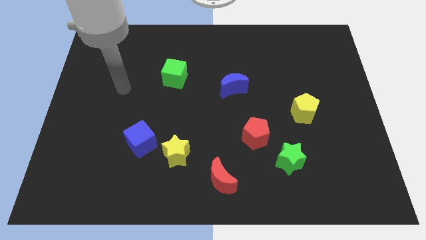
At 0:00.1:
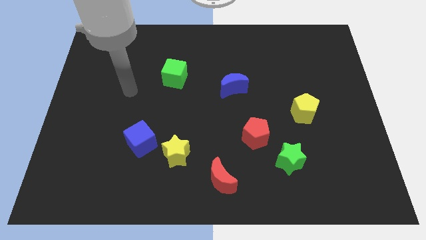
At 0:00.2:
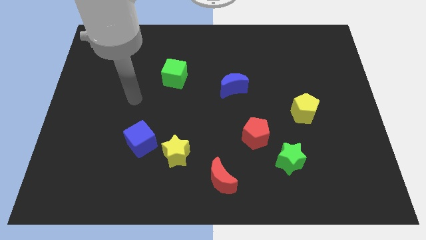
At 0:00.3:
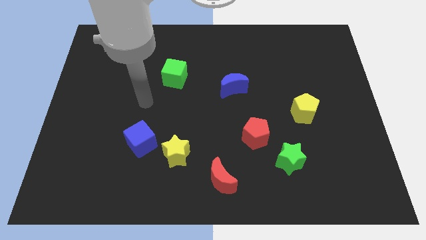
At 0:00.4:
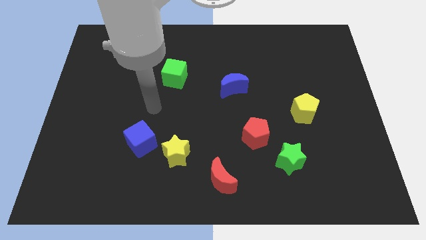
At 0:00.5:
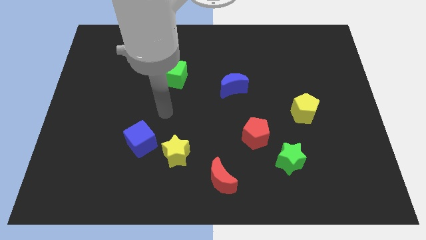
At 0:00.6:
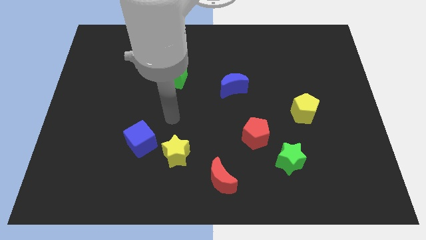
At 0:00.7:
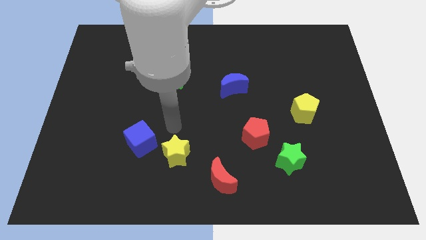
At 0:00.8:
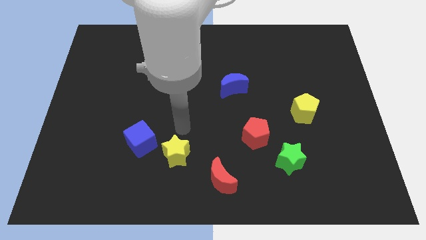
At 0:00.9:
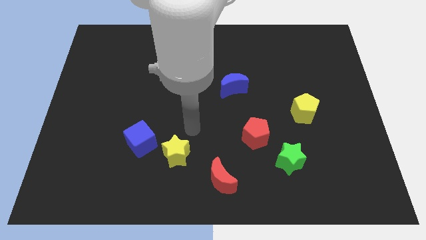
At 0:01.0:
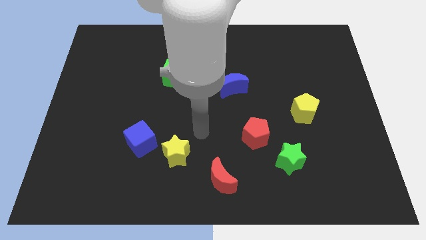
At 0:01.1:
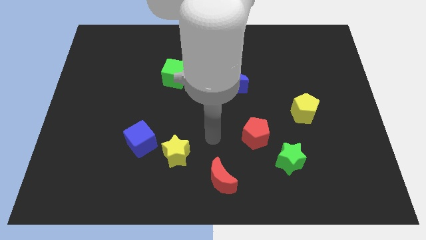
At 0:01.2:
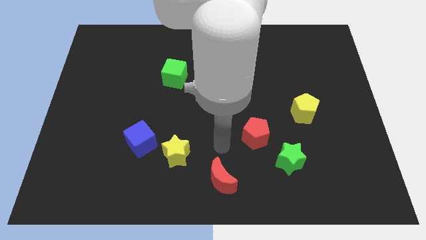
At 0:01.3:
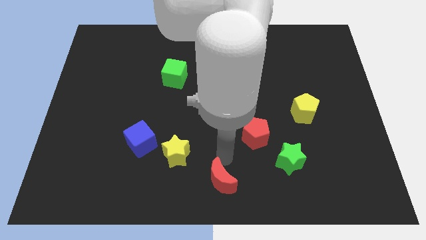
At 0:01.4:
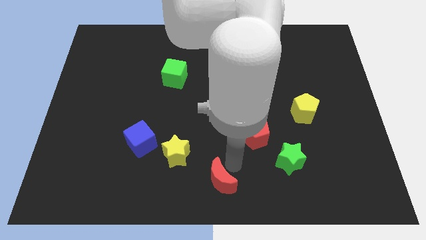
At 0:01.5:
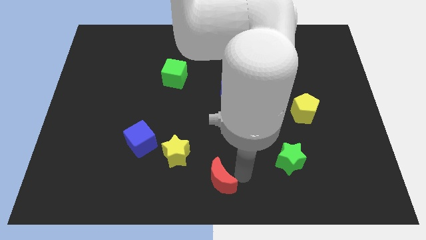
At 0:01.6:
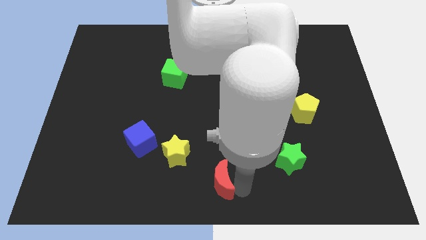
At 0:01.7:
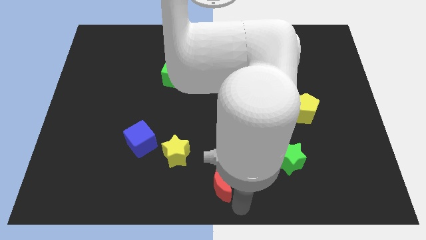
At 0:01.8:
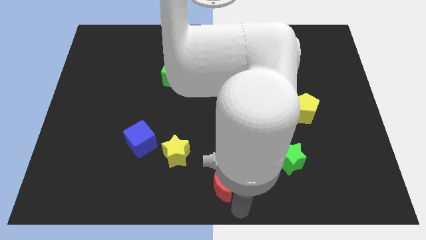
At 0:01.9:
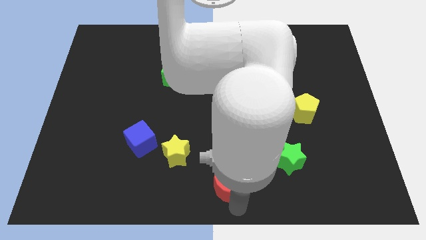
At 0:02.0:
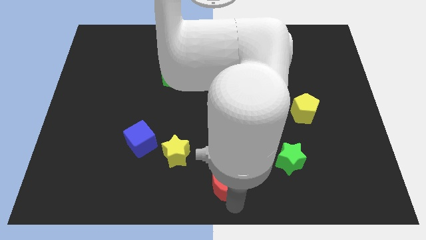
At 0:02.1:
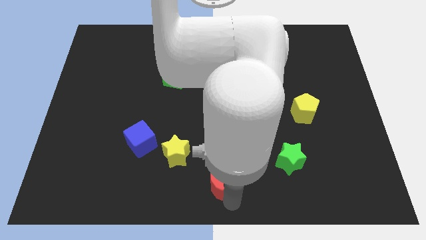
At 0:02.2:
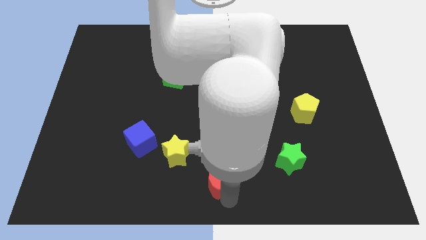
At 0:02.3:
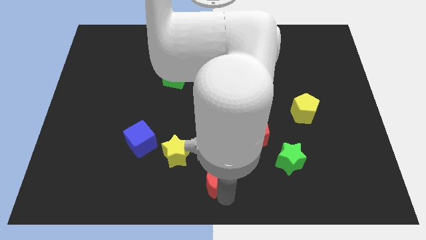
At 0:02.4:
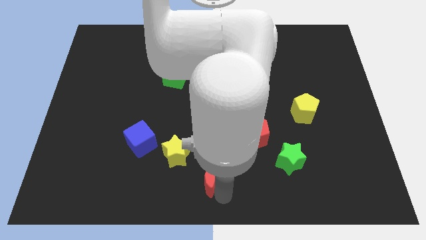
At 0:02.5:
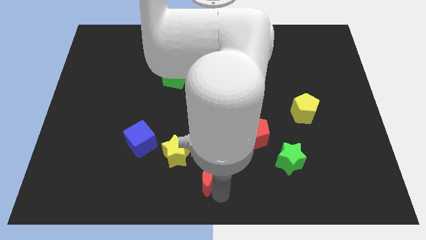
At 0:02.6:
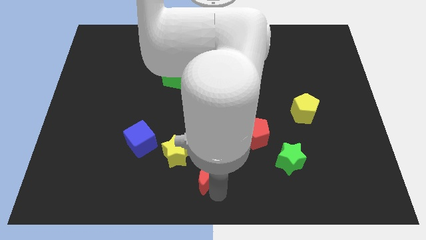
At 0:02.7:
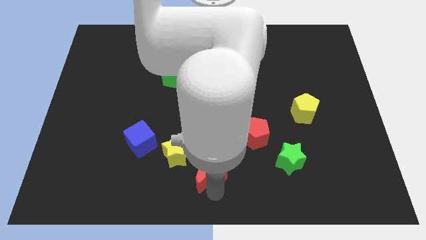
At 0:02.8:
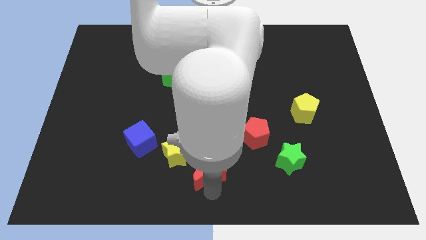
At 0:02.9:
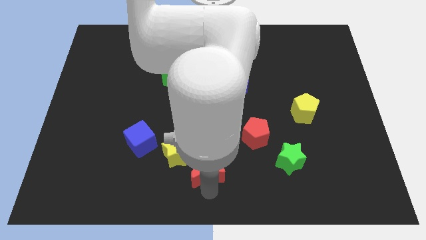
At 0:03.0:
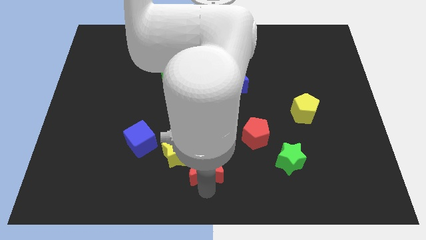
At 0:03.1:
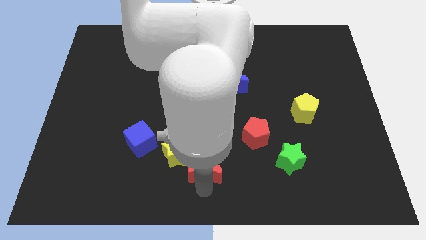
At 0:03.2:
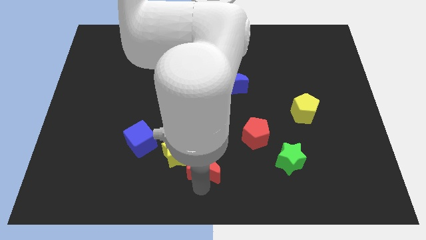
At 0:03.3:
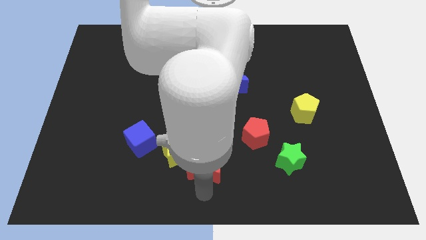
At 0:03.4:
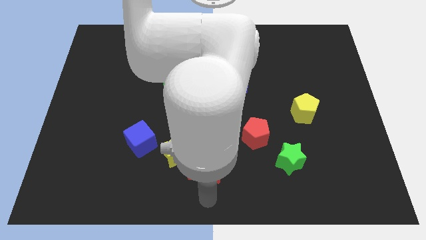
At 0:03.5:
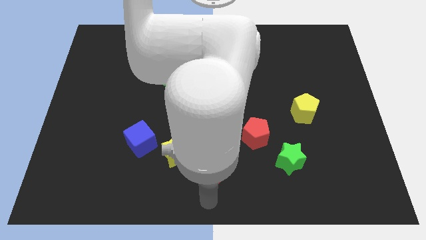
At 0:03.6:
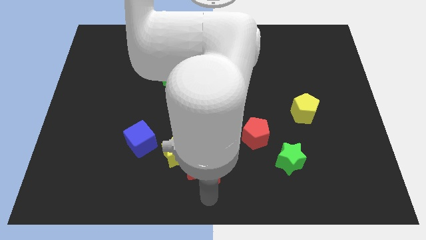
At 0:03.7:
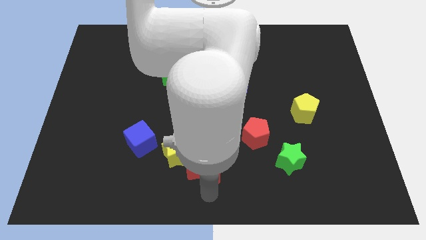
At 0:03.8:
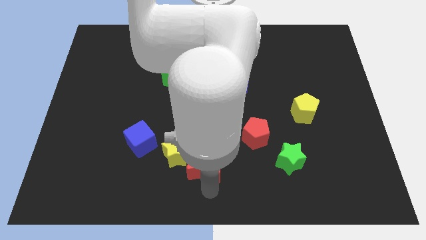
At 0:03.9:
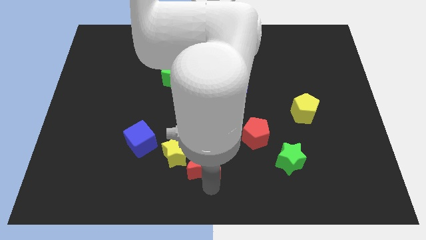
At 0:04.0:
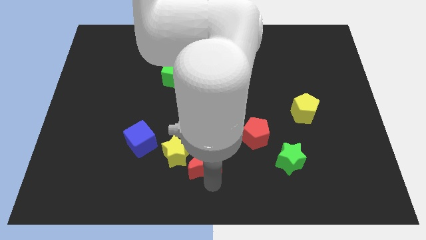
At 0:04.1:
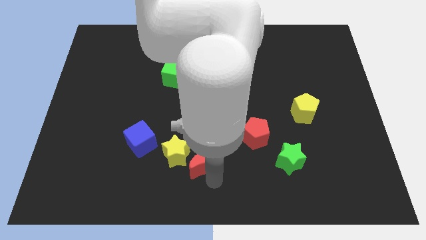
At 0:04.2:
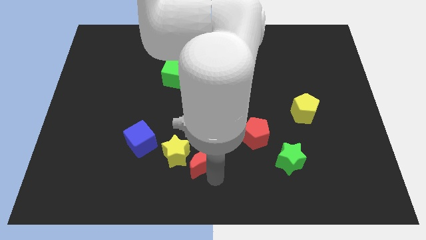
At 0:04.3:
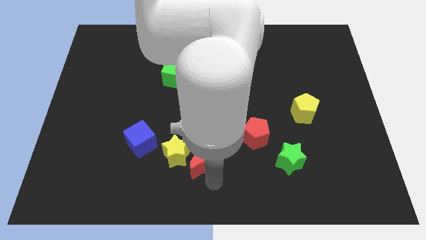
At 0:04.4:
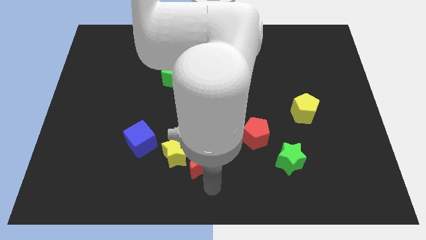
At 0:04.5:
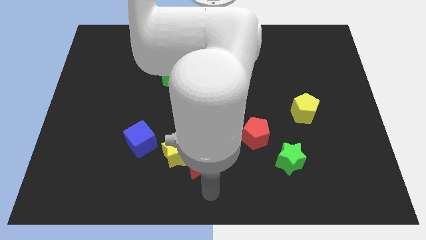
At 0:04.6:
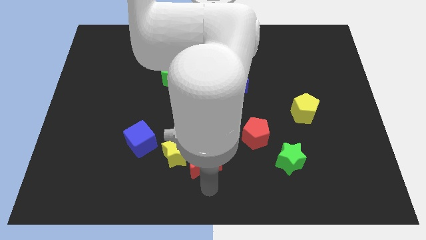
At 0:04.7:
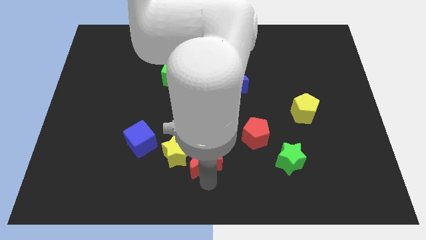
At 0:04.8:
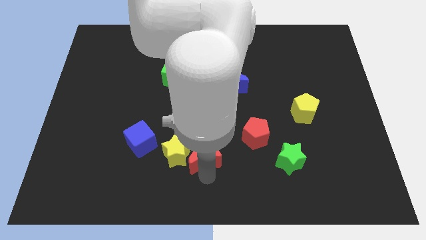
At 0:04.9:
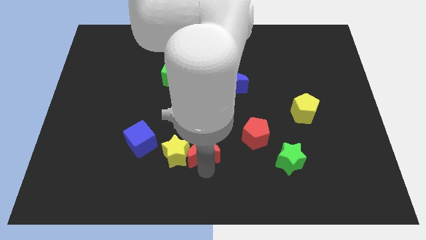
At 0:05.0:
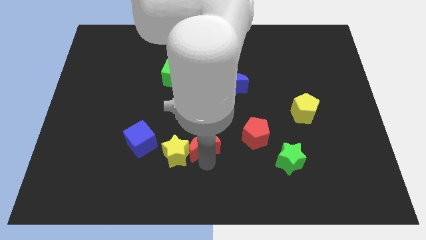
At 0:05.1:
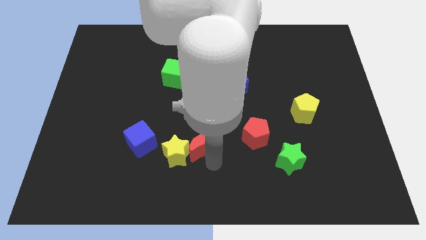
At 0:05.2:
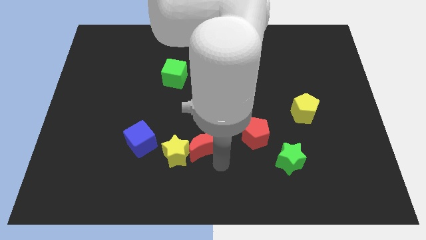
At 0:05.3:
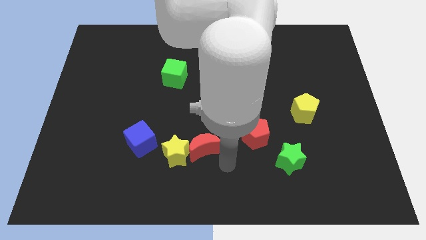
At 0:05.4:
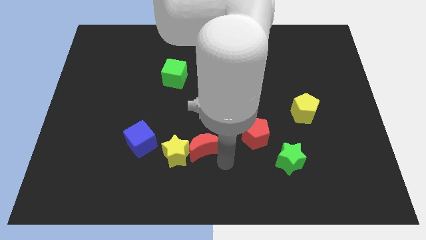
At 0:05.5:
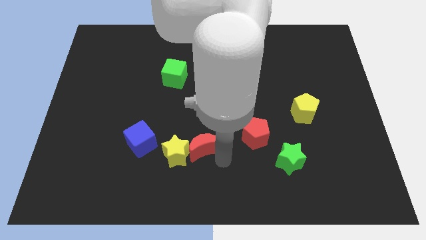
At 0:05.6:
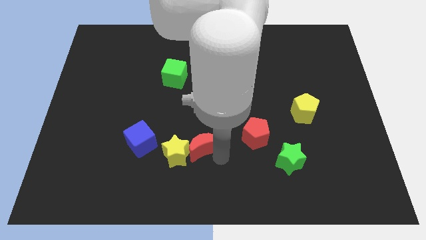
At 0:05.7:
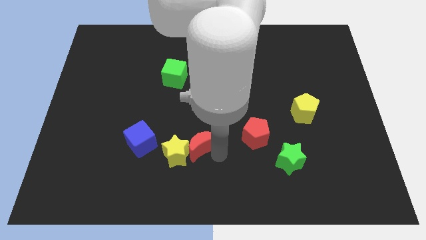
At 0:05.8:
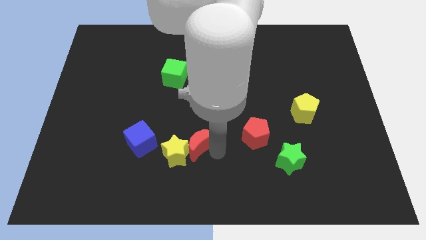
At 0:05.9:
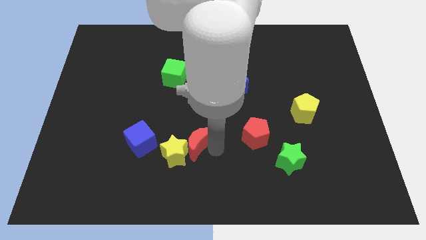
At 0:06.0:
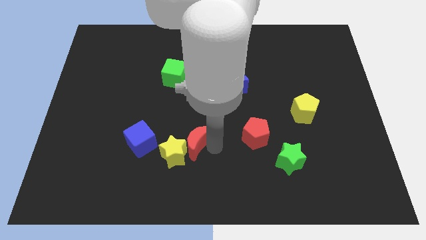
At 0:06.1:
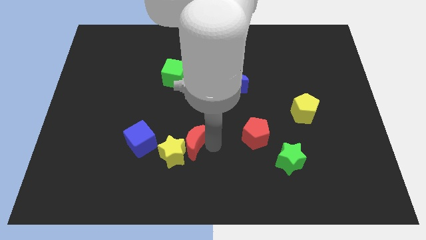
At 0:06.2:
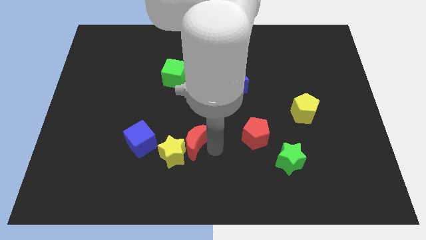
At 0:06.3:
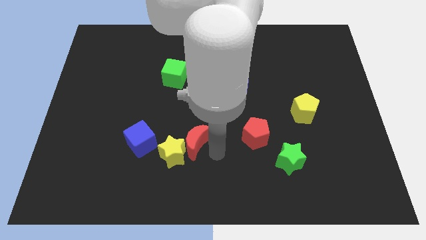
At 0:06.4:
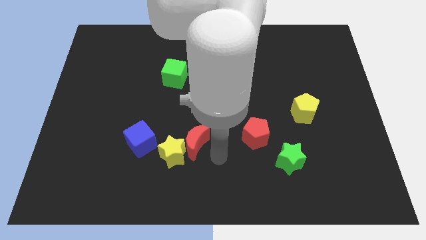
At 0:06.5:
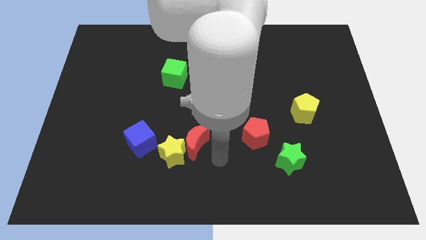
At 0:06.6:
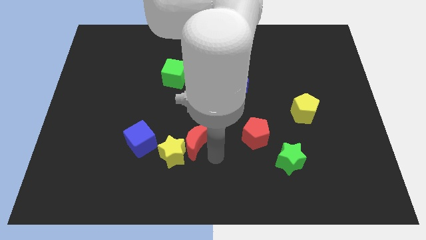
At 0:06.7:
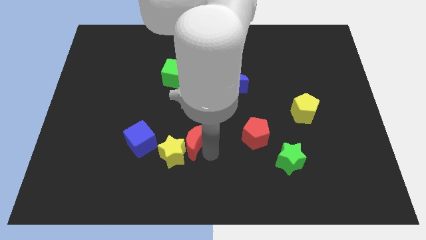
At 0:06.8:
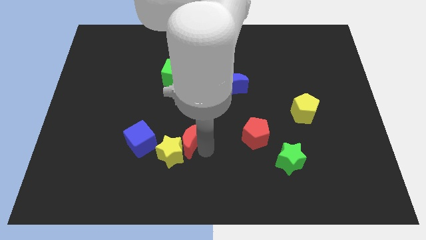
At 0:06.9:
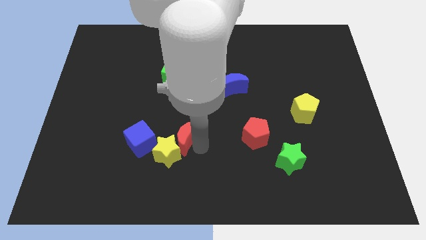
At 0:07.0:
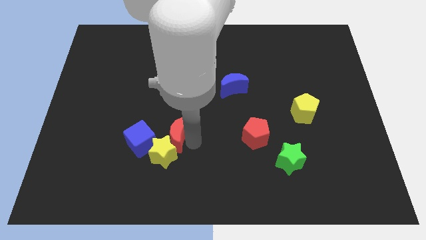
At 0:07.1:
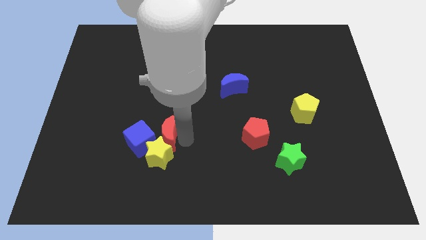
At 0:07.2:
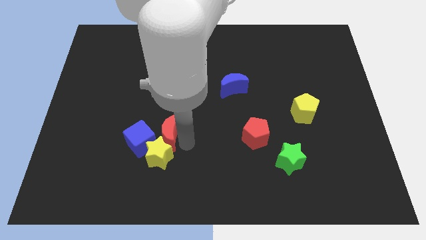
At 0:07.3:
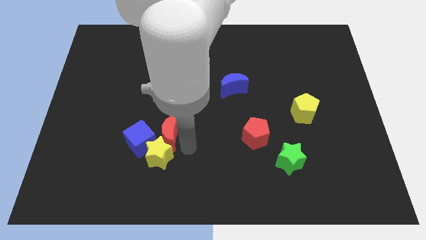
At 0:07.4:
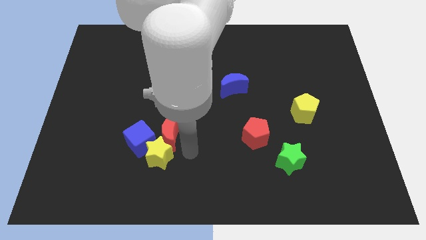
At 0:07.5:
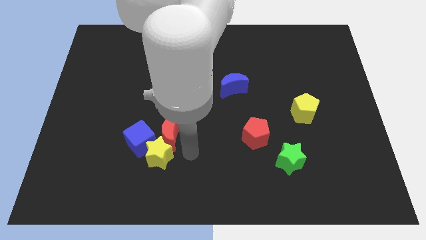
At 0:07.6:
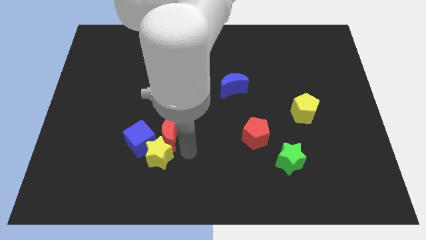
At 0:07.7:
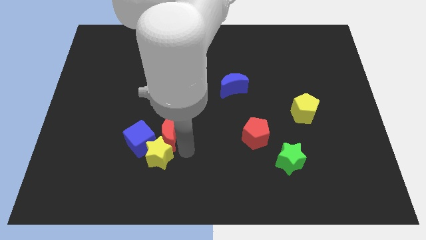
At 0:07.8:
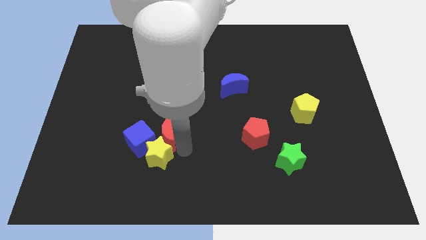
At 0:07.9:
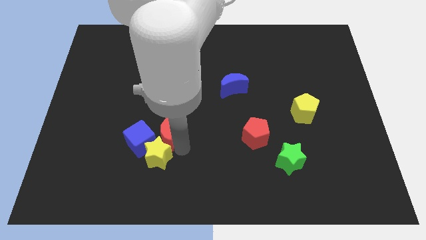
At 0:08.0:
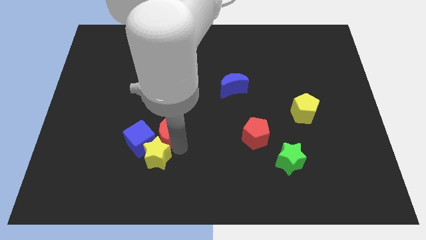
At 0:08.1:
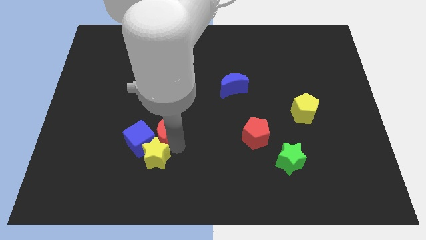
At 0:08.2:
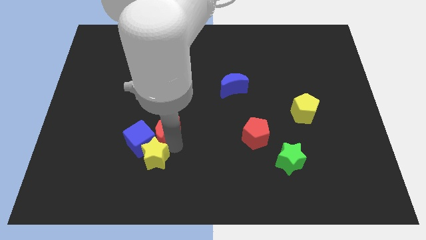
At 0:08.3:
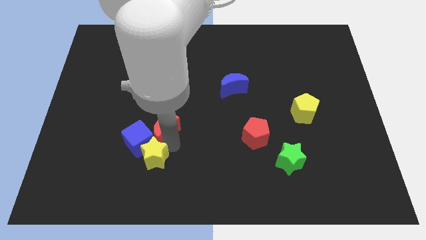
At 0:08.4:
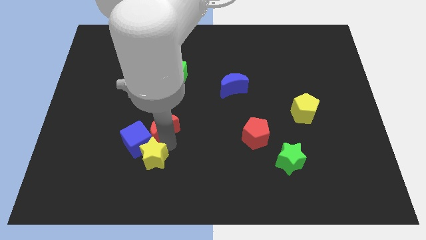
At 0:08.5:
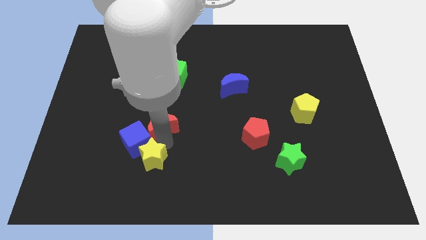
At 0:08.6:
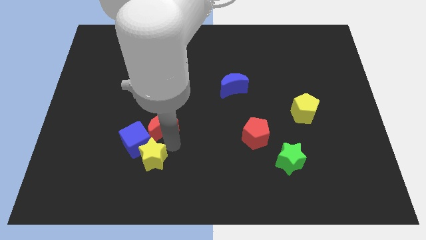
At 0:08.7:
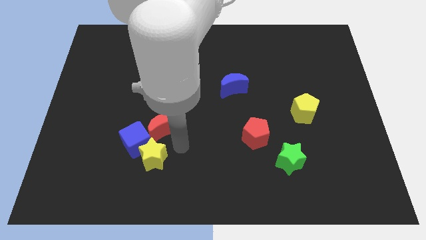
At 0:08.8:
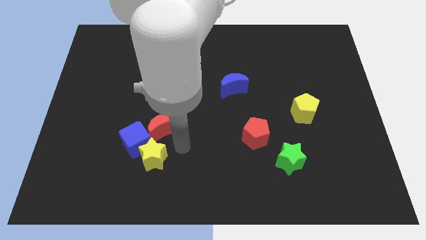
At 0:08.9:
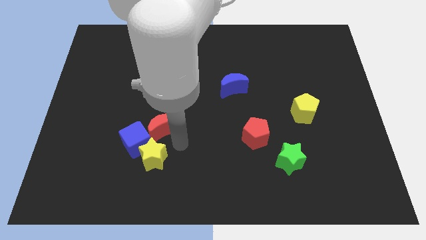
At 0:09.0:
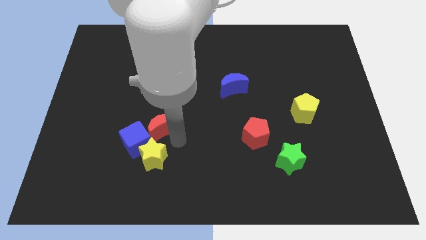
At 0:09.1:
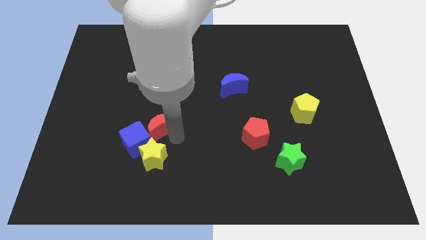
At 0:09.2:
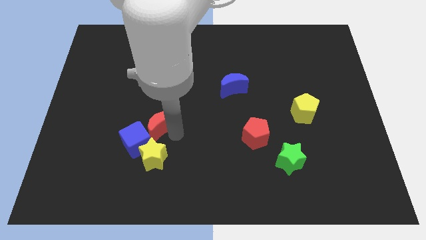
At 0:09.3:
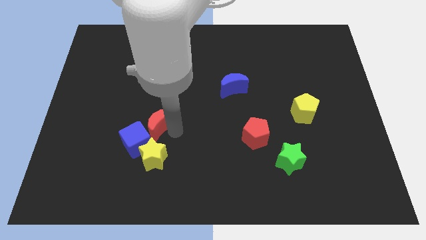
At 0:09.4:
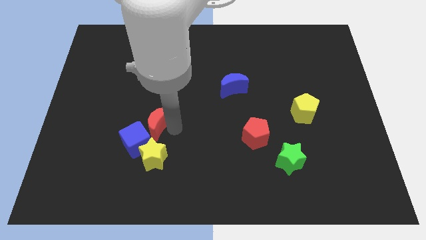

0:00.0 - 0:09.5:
slide the red moon upwards and left diagonally
